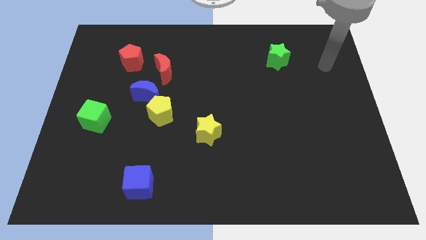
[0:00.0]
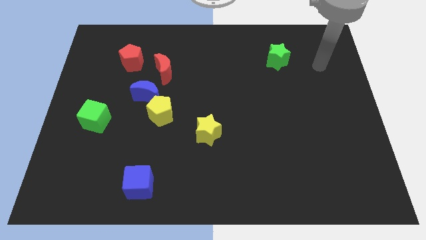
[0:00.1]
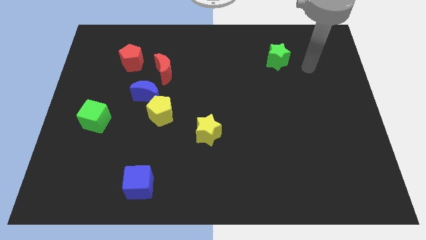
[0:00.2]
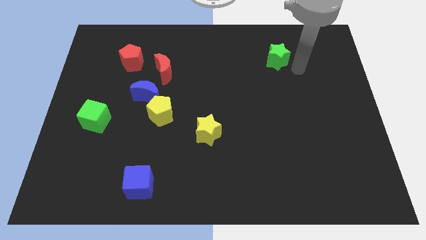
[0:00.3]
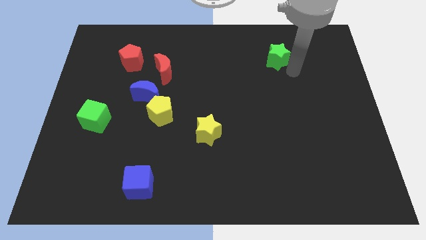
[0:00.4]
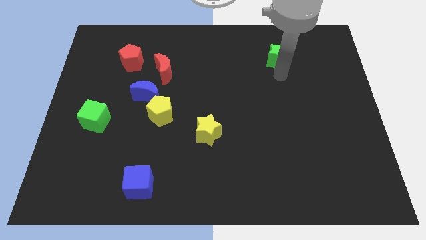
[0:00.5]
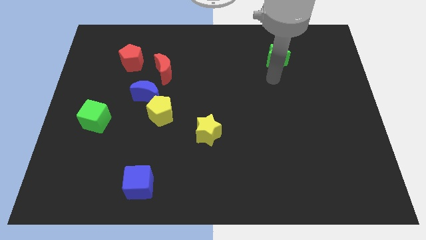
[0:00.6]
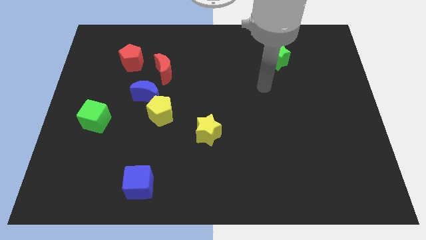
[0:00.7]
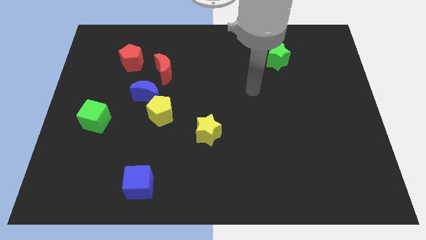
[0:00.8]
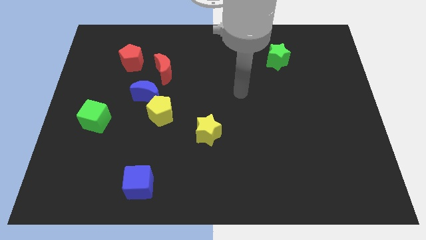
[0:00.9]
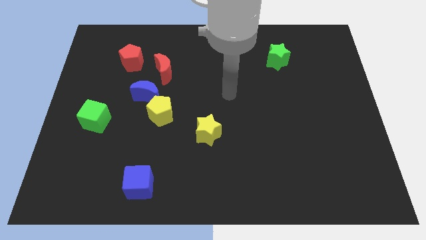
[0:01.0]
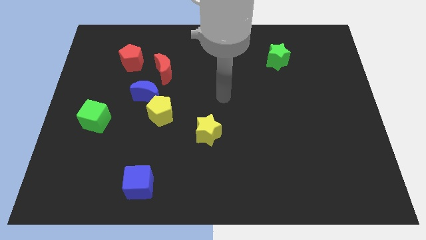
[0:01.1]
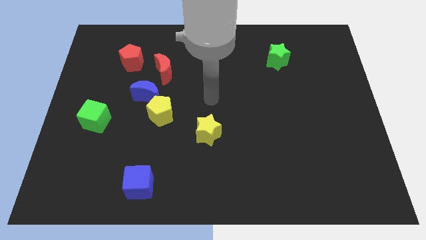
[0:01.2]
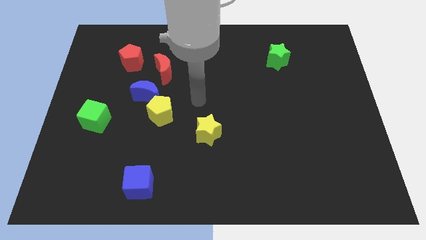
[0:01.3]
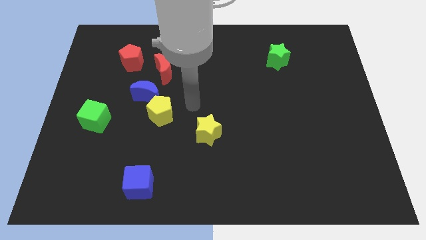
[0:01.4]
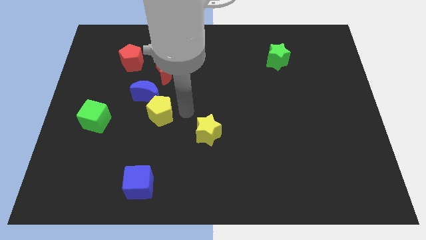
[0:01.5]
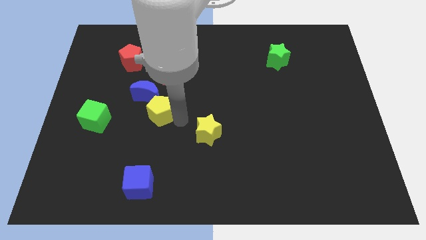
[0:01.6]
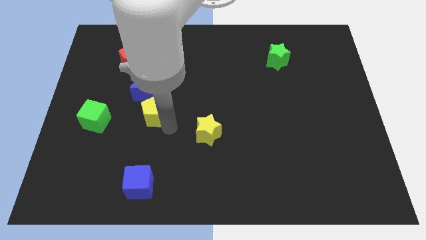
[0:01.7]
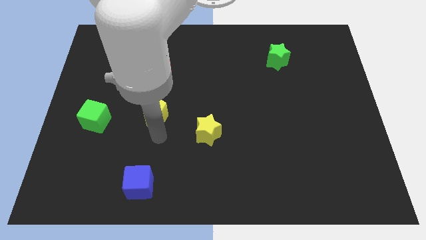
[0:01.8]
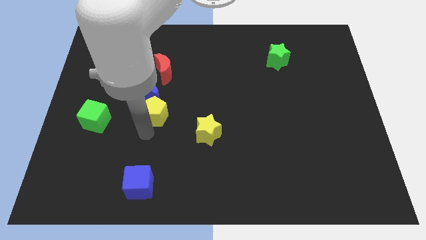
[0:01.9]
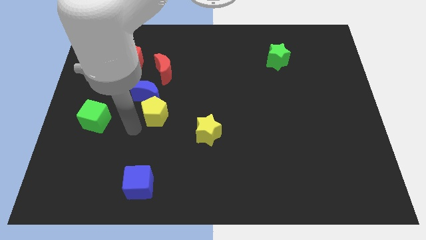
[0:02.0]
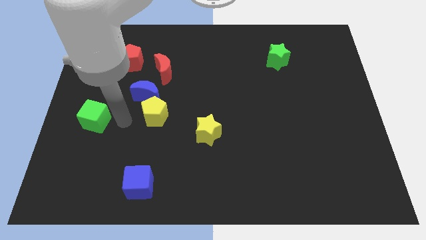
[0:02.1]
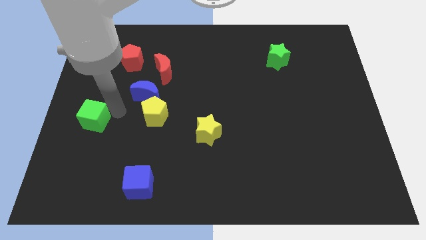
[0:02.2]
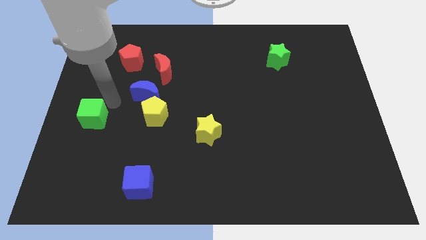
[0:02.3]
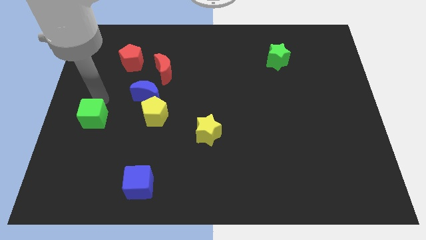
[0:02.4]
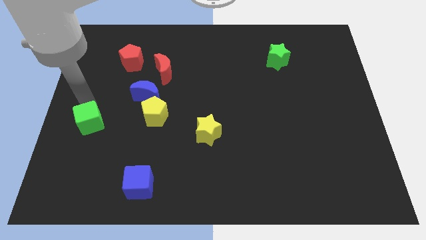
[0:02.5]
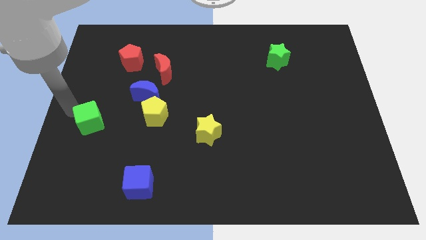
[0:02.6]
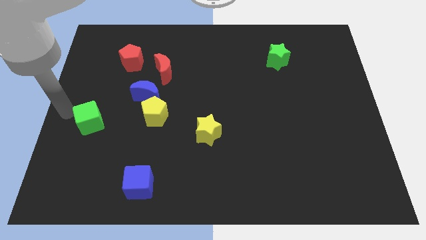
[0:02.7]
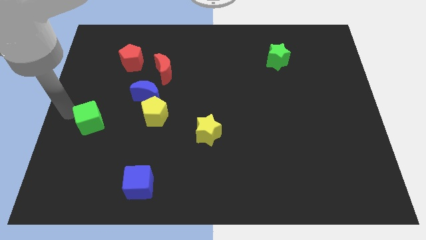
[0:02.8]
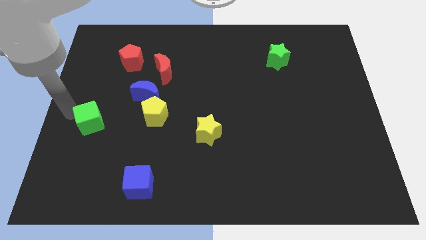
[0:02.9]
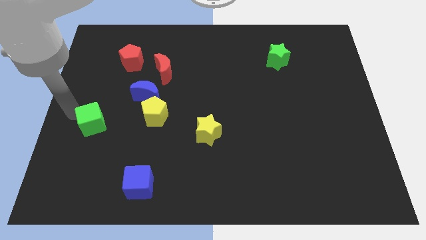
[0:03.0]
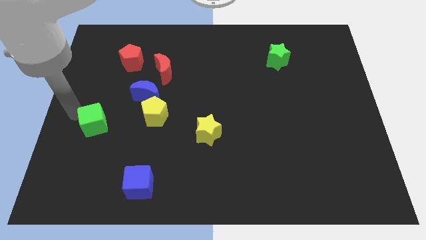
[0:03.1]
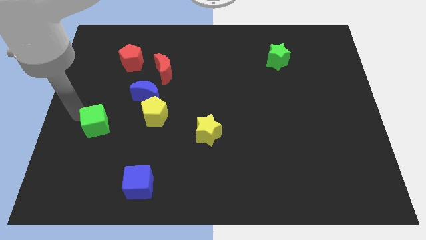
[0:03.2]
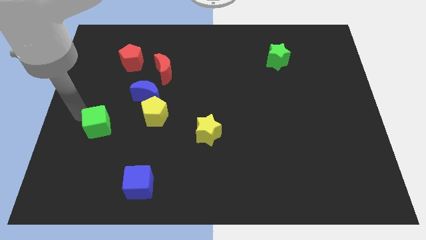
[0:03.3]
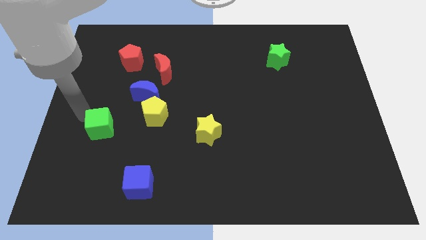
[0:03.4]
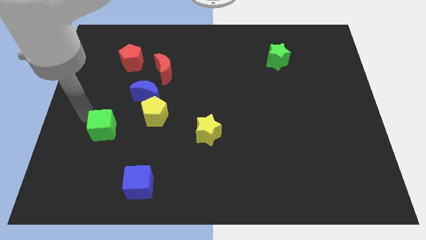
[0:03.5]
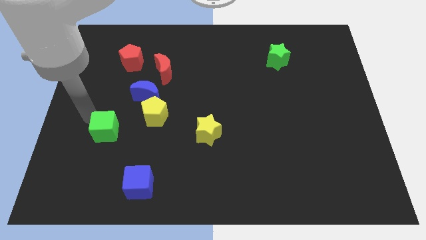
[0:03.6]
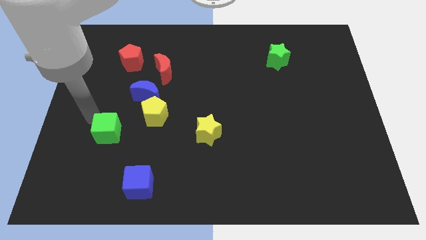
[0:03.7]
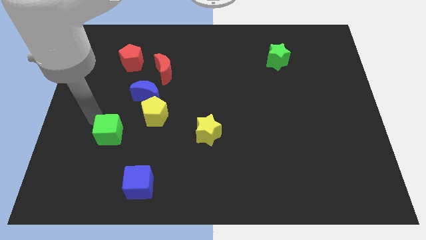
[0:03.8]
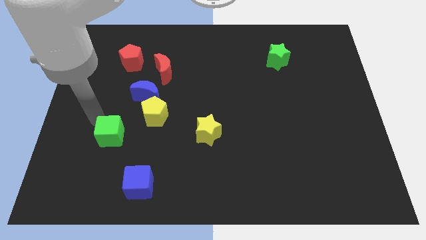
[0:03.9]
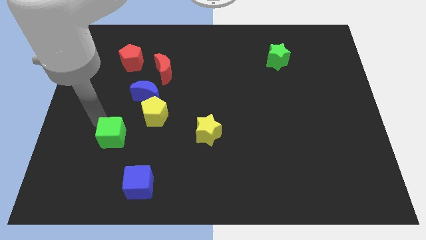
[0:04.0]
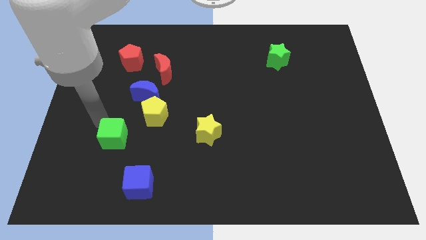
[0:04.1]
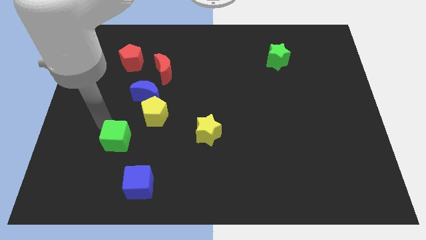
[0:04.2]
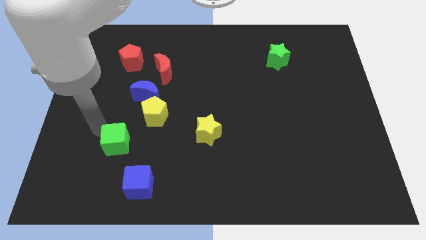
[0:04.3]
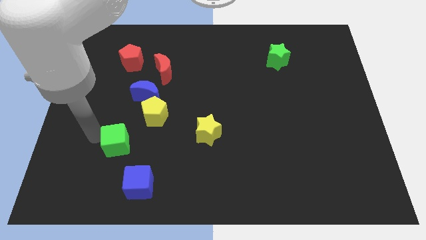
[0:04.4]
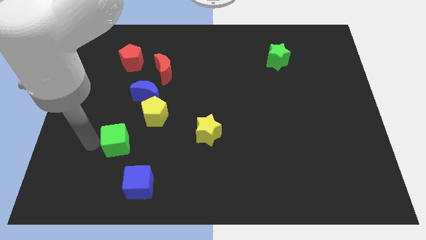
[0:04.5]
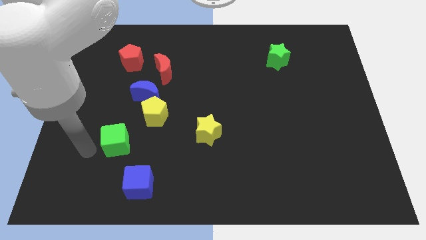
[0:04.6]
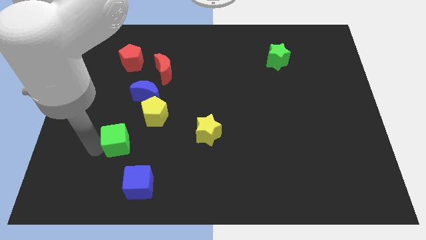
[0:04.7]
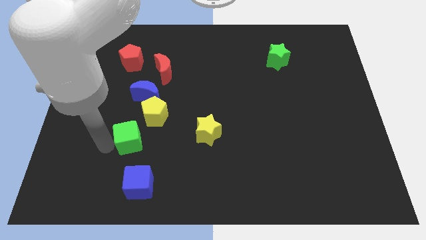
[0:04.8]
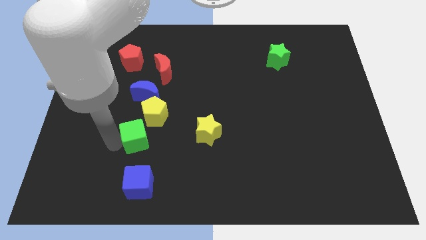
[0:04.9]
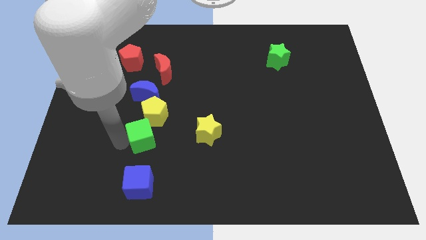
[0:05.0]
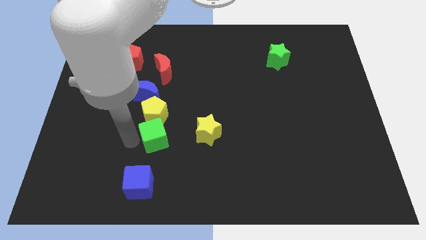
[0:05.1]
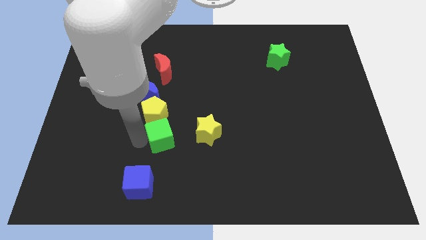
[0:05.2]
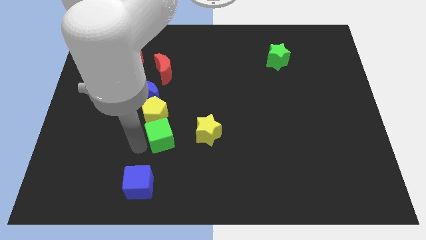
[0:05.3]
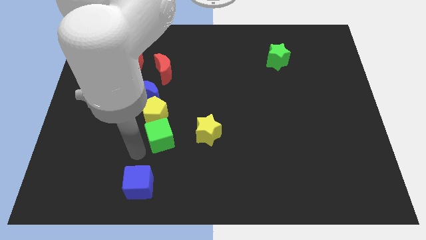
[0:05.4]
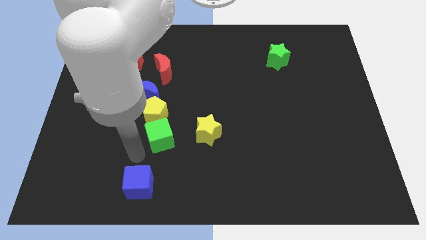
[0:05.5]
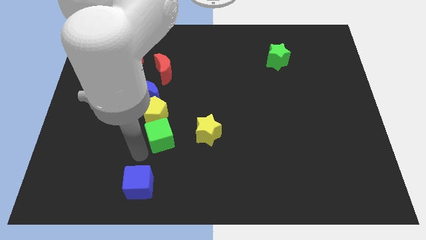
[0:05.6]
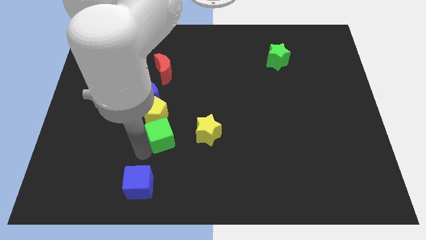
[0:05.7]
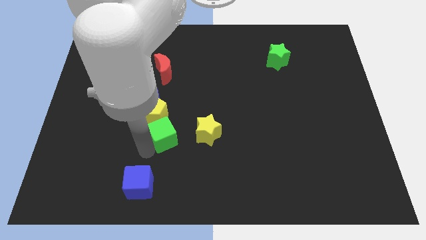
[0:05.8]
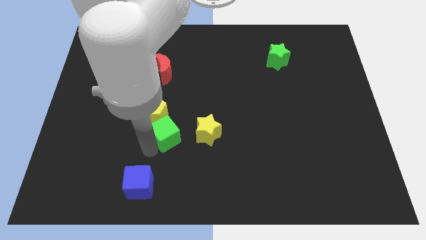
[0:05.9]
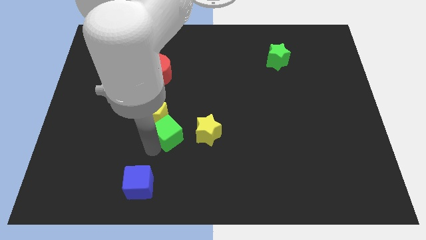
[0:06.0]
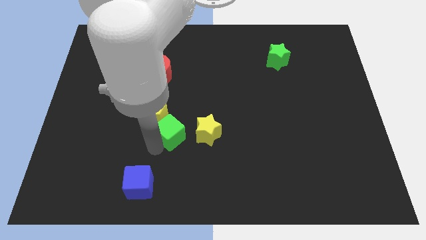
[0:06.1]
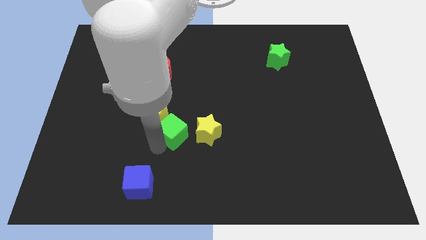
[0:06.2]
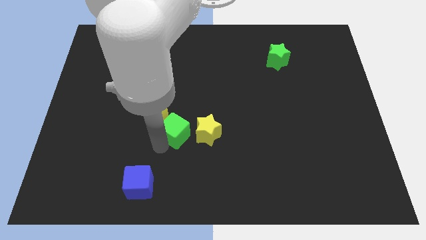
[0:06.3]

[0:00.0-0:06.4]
put the green cube to the center
